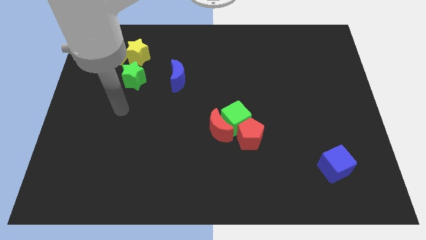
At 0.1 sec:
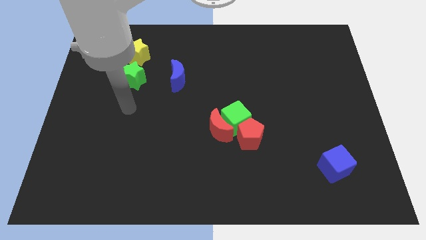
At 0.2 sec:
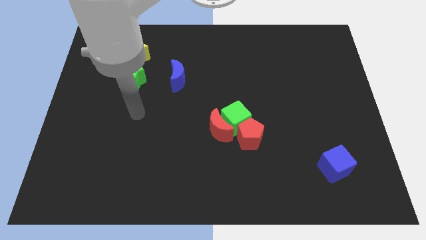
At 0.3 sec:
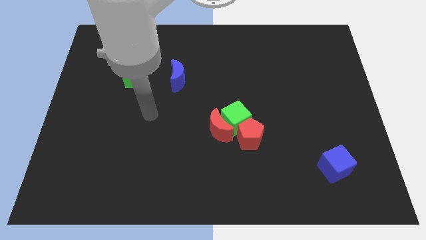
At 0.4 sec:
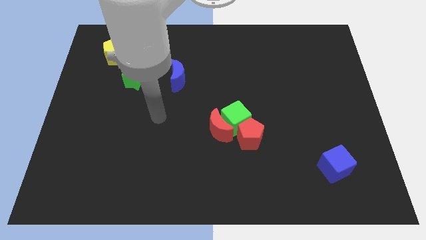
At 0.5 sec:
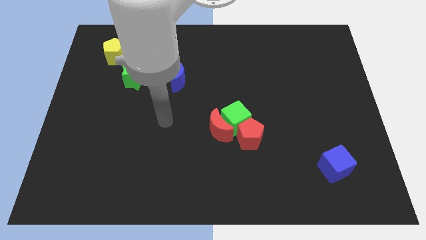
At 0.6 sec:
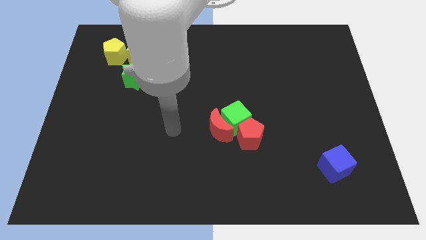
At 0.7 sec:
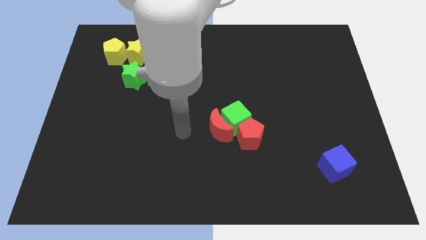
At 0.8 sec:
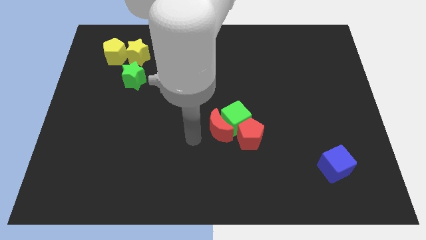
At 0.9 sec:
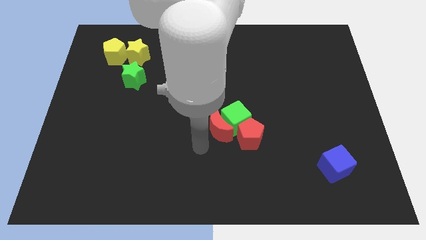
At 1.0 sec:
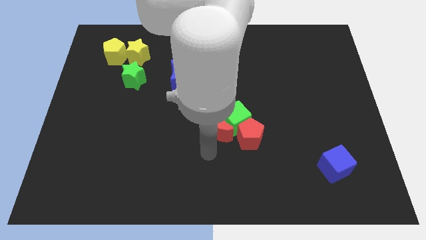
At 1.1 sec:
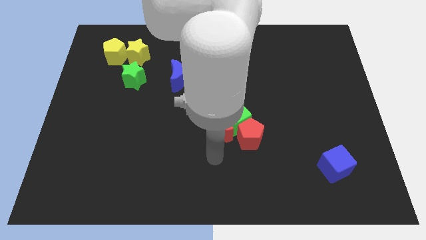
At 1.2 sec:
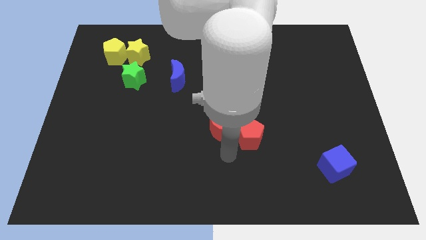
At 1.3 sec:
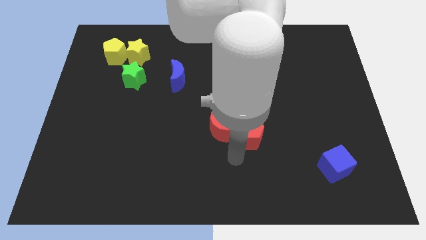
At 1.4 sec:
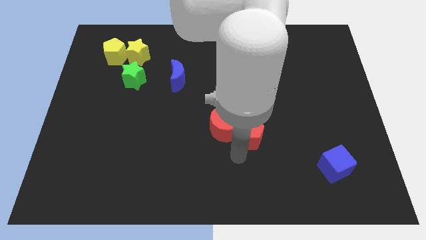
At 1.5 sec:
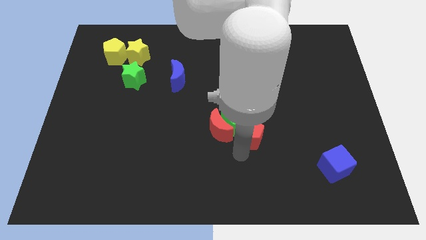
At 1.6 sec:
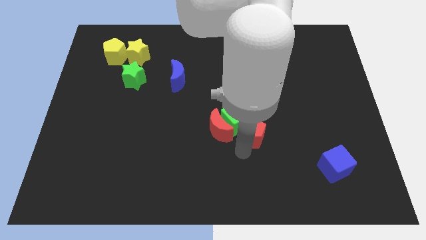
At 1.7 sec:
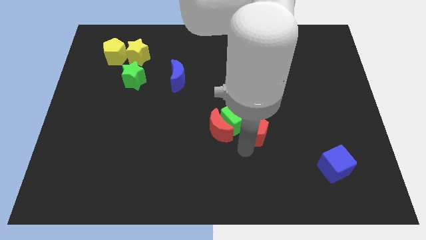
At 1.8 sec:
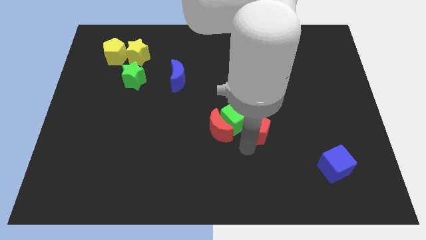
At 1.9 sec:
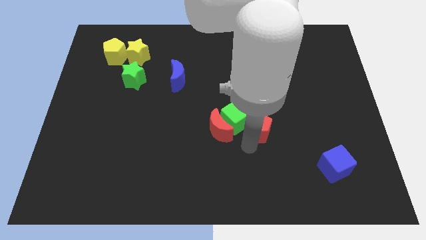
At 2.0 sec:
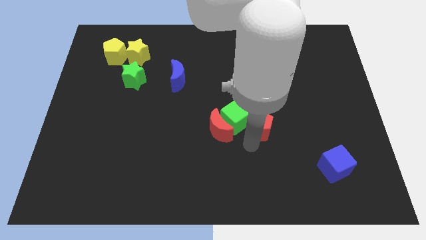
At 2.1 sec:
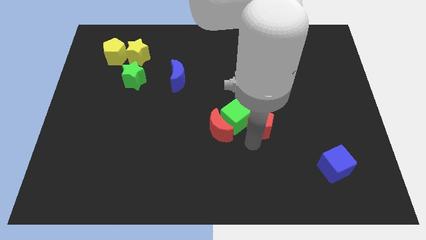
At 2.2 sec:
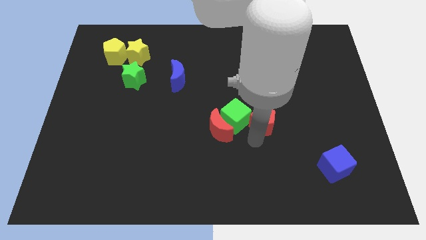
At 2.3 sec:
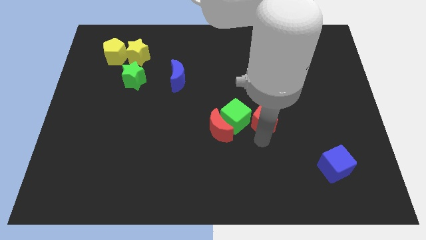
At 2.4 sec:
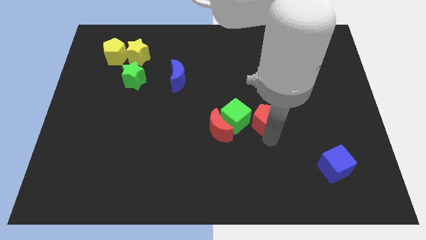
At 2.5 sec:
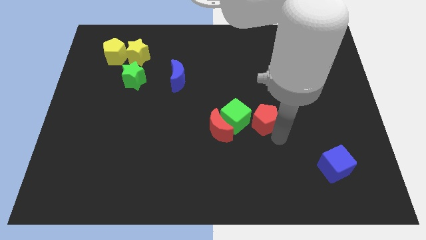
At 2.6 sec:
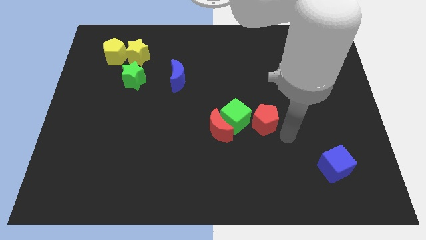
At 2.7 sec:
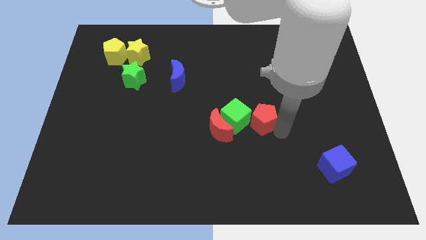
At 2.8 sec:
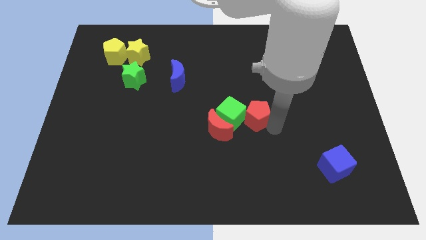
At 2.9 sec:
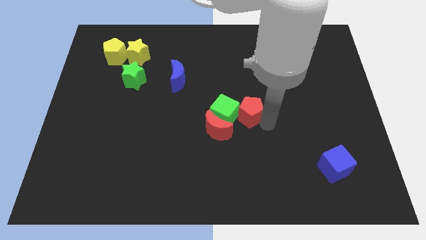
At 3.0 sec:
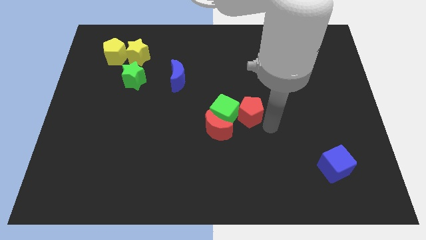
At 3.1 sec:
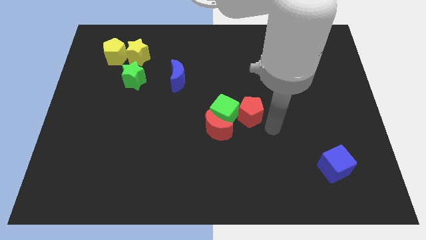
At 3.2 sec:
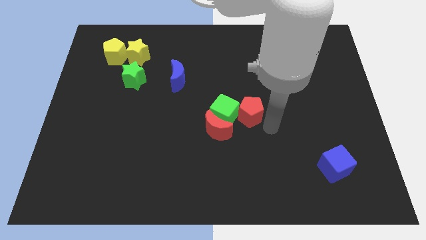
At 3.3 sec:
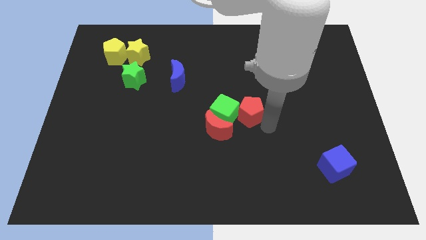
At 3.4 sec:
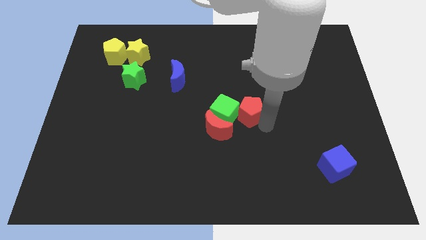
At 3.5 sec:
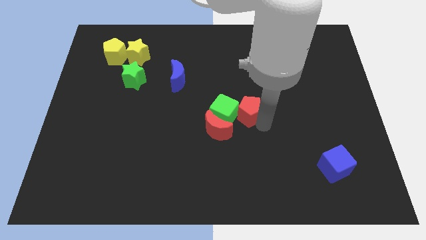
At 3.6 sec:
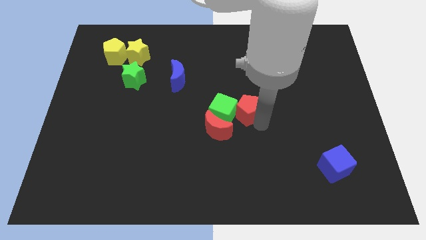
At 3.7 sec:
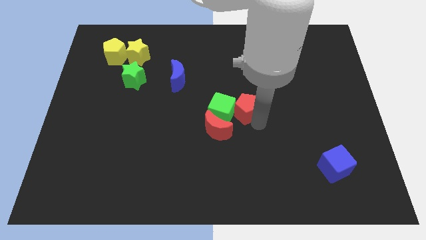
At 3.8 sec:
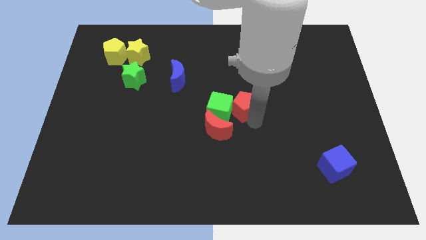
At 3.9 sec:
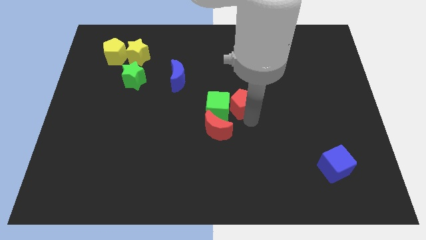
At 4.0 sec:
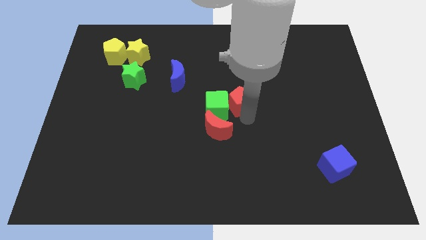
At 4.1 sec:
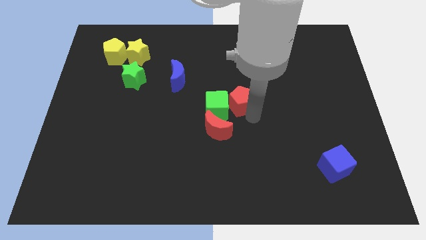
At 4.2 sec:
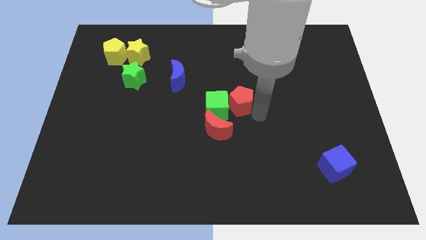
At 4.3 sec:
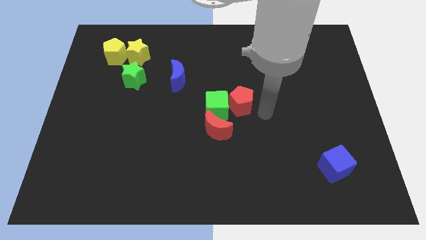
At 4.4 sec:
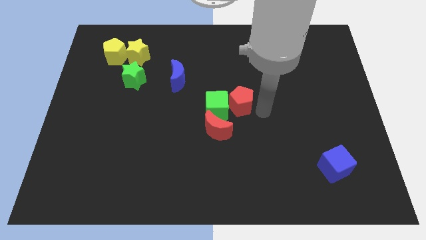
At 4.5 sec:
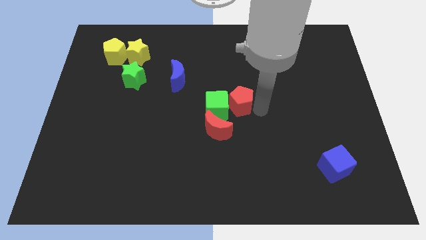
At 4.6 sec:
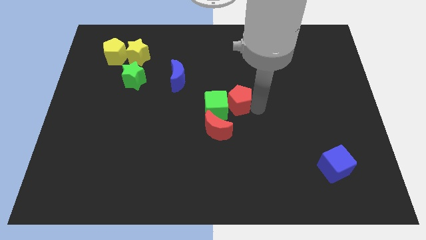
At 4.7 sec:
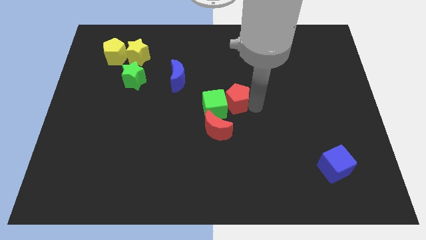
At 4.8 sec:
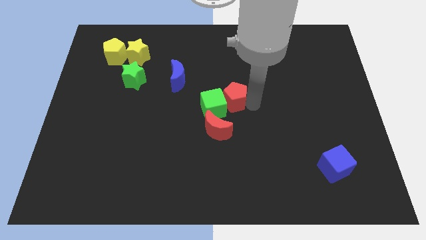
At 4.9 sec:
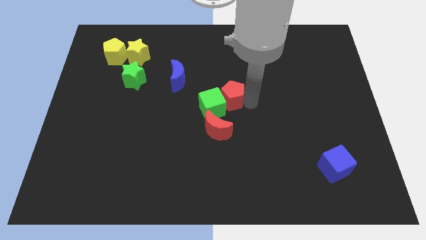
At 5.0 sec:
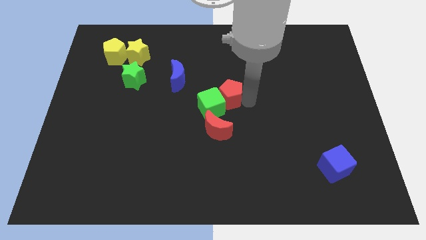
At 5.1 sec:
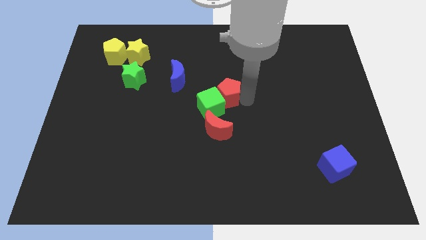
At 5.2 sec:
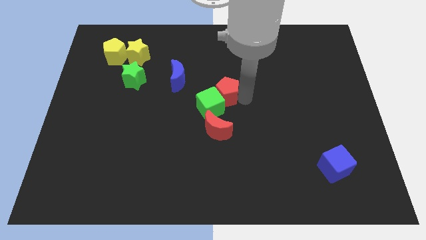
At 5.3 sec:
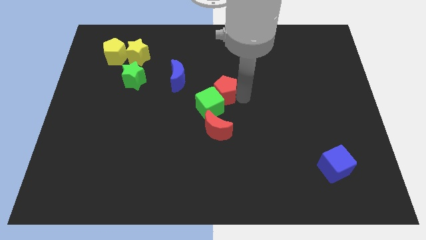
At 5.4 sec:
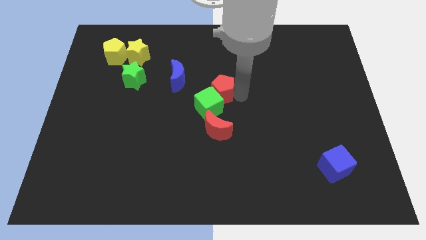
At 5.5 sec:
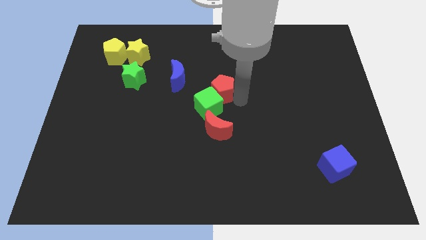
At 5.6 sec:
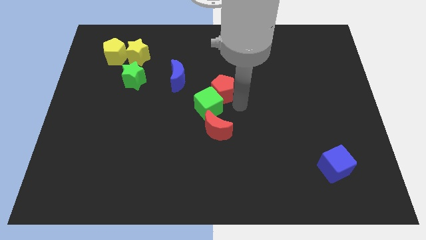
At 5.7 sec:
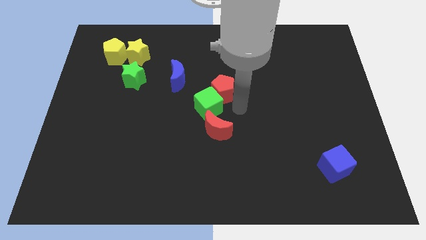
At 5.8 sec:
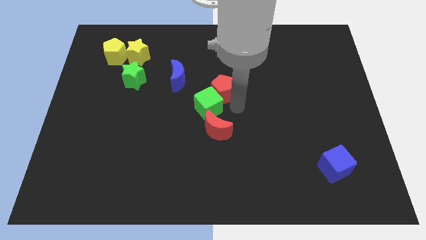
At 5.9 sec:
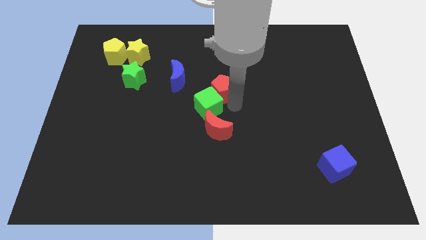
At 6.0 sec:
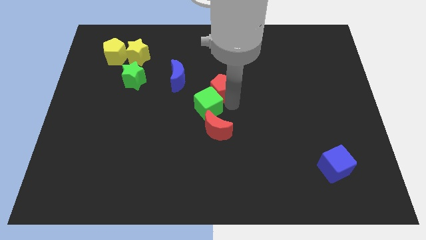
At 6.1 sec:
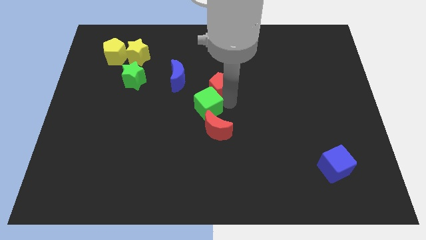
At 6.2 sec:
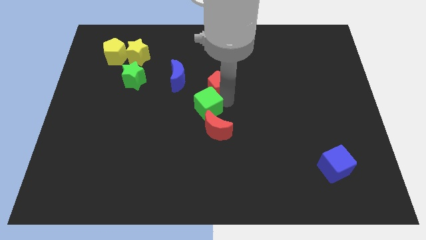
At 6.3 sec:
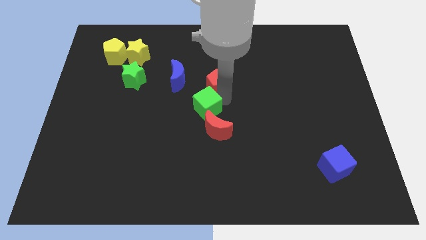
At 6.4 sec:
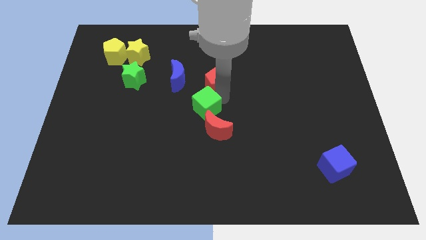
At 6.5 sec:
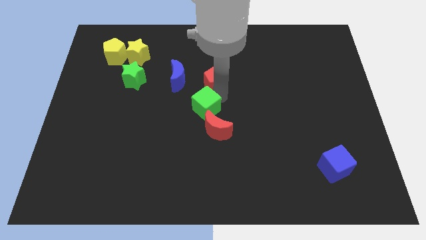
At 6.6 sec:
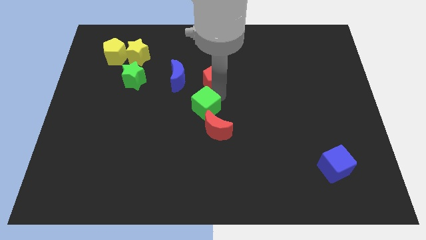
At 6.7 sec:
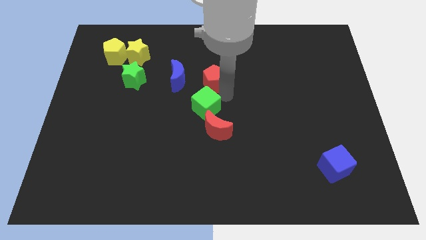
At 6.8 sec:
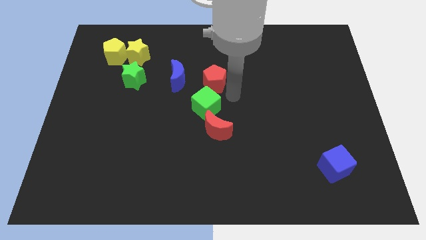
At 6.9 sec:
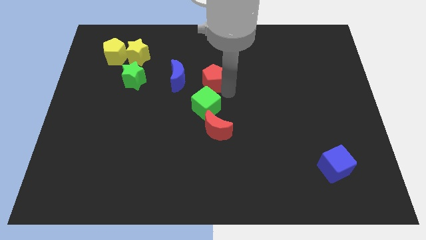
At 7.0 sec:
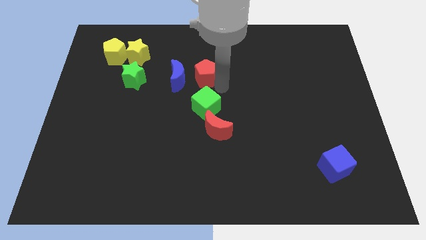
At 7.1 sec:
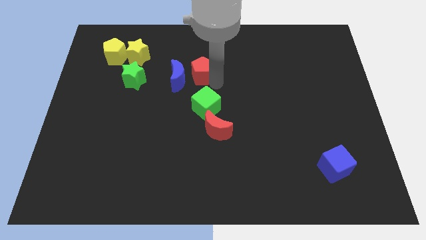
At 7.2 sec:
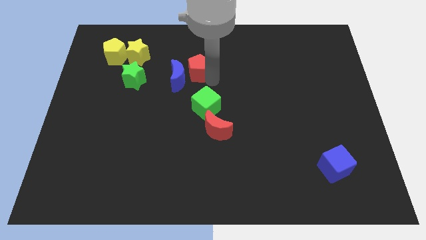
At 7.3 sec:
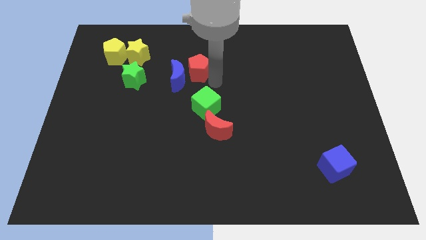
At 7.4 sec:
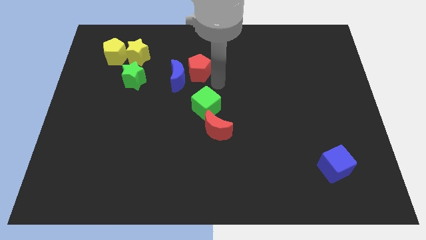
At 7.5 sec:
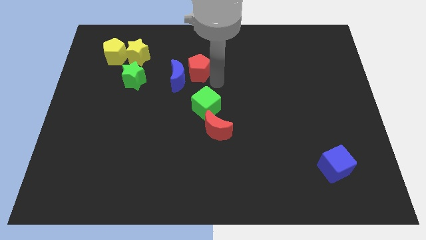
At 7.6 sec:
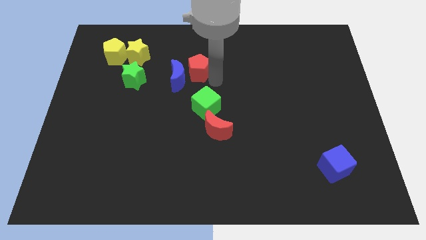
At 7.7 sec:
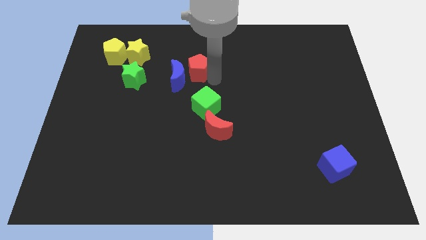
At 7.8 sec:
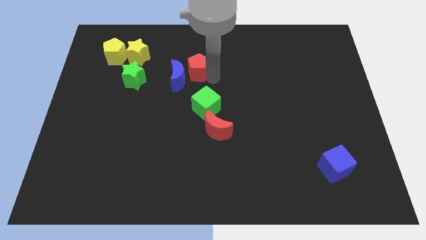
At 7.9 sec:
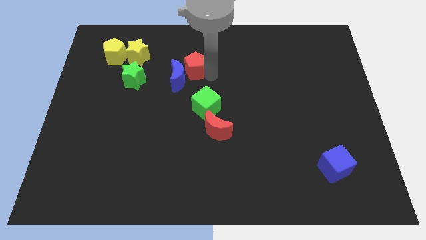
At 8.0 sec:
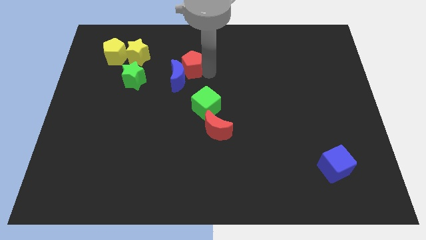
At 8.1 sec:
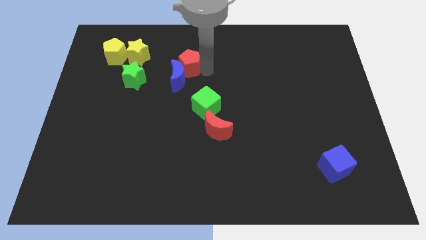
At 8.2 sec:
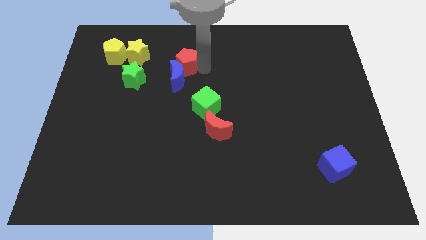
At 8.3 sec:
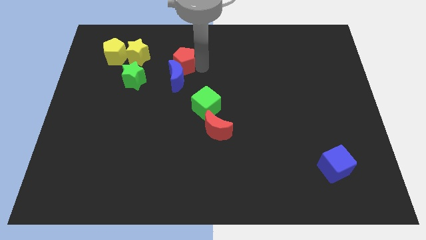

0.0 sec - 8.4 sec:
slide the red pentagon diagonally up and to the left of the blue moon
